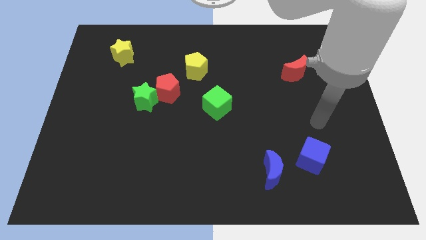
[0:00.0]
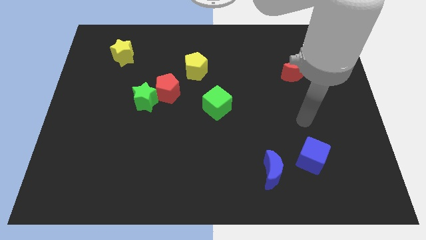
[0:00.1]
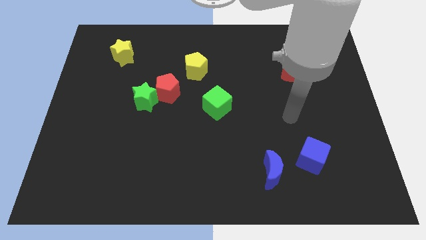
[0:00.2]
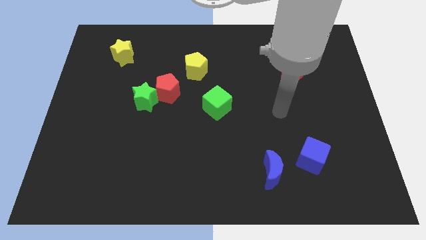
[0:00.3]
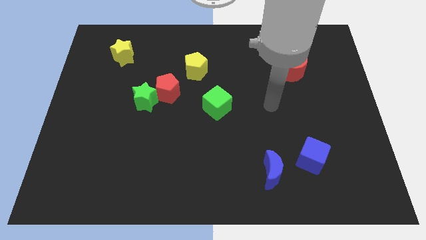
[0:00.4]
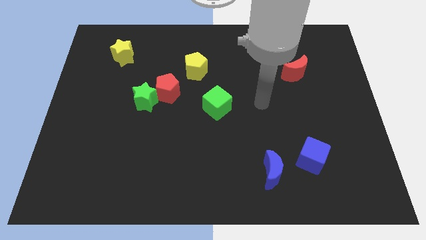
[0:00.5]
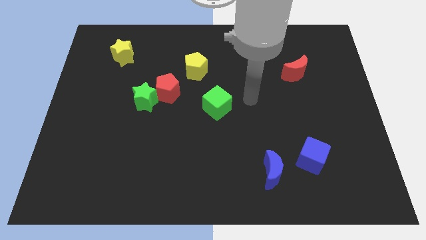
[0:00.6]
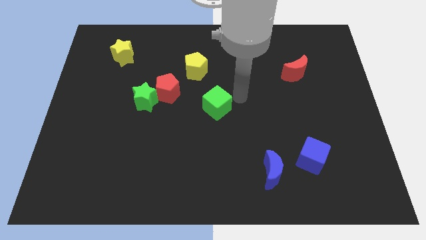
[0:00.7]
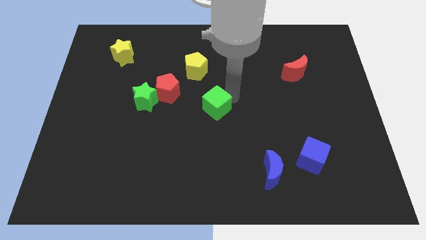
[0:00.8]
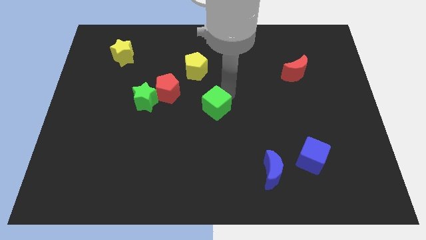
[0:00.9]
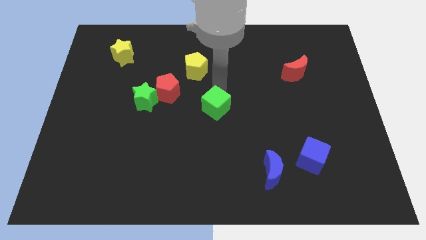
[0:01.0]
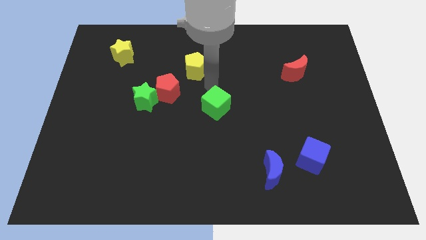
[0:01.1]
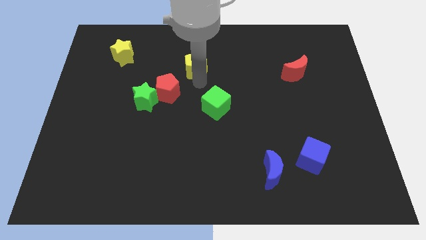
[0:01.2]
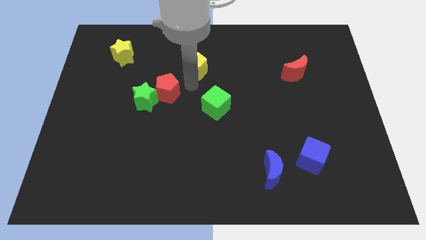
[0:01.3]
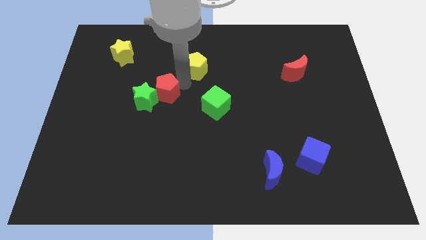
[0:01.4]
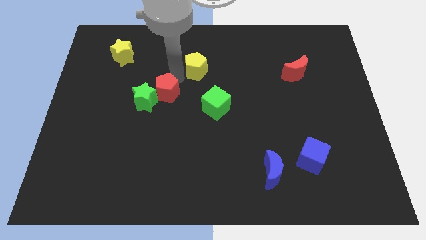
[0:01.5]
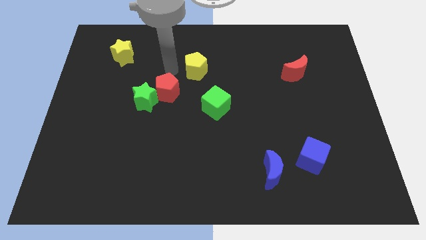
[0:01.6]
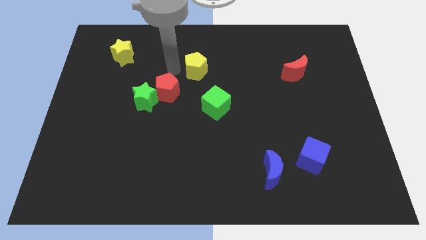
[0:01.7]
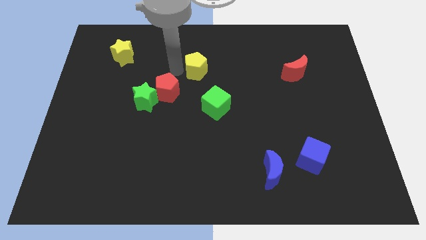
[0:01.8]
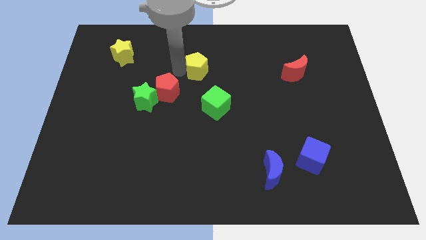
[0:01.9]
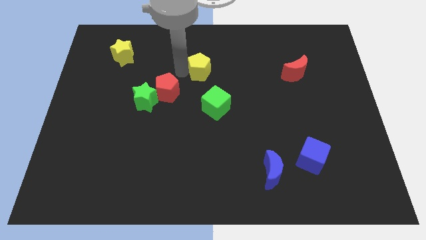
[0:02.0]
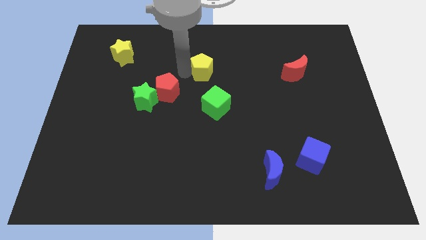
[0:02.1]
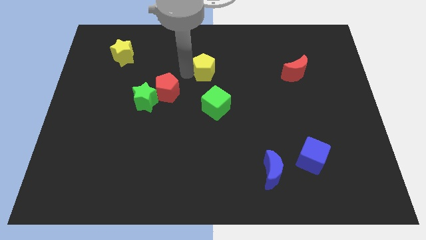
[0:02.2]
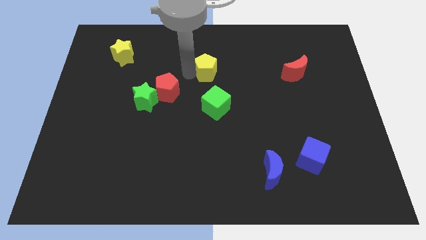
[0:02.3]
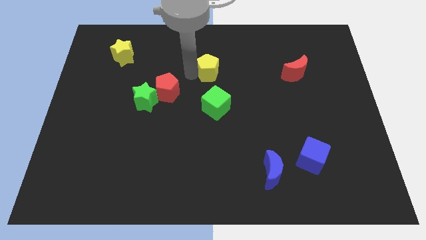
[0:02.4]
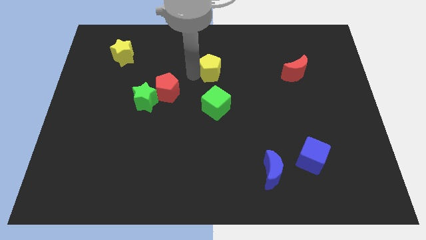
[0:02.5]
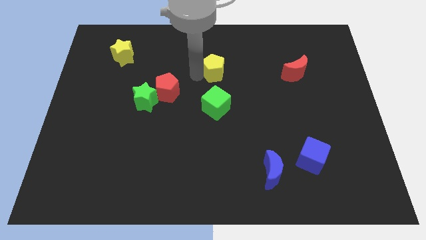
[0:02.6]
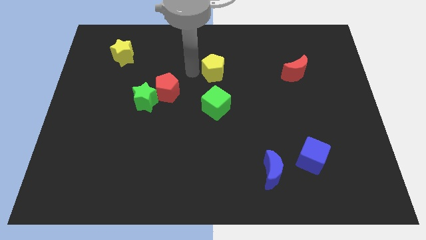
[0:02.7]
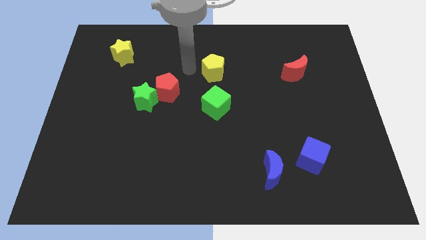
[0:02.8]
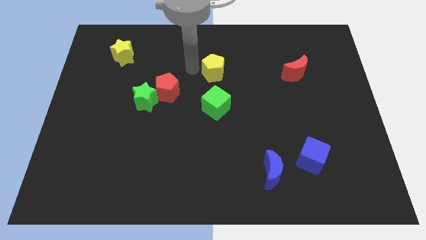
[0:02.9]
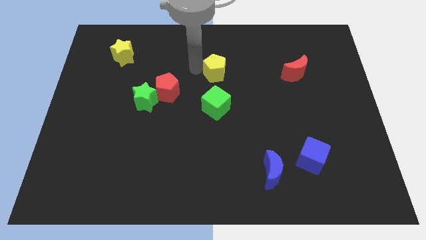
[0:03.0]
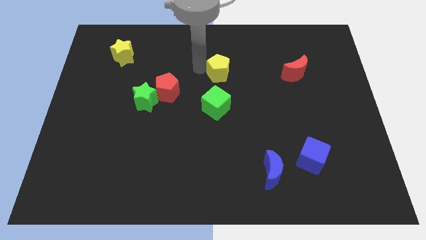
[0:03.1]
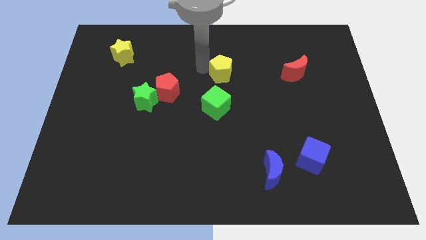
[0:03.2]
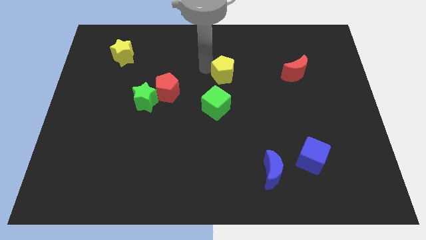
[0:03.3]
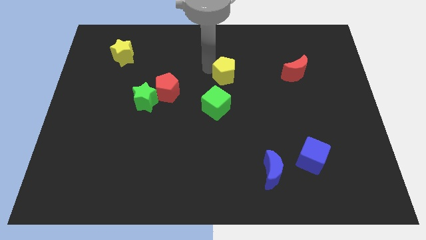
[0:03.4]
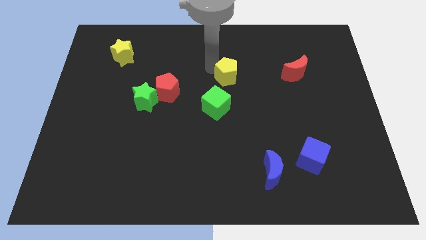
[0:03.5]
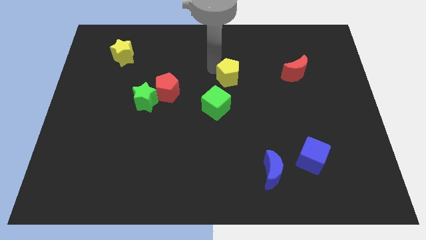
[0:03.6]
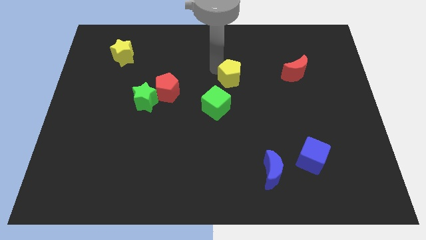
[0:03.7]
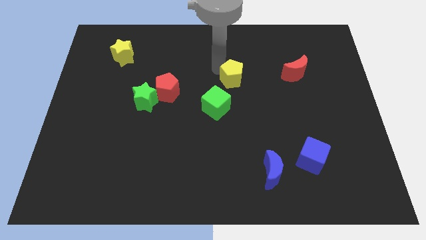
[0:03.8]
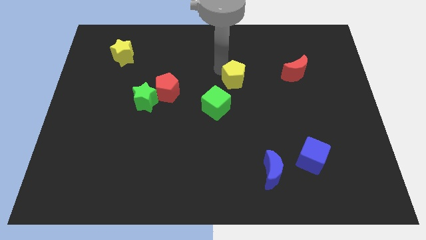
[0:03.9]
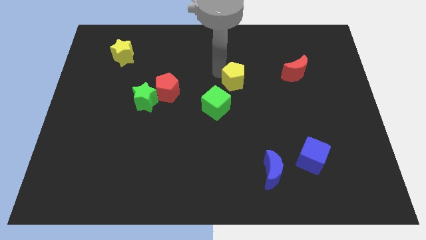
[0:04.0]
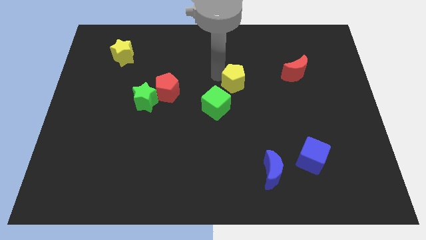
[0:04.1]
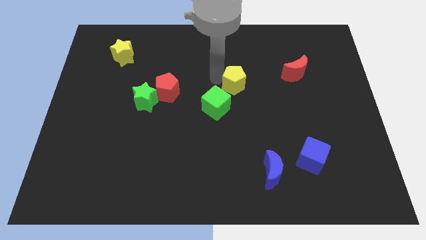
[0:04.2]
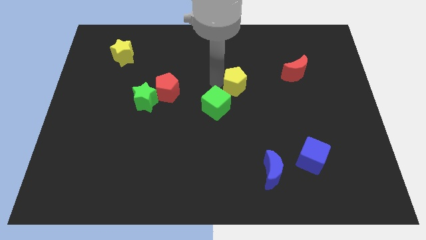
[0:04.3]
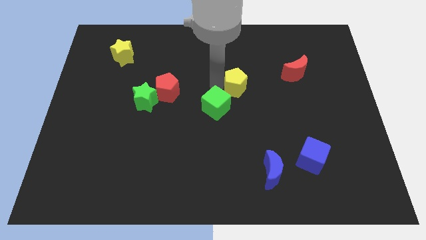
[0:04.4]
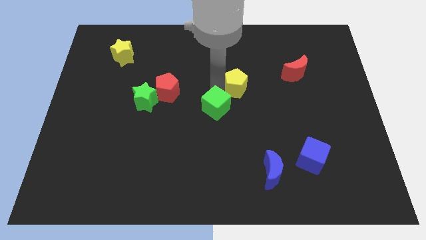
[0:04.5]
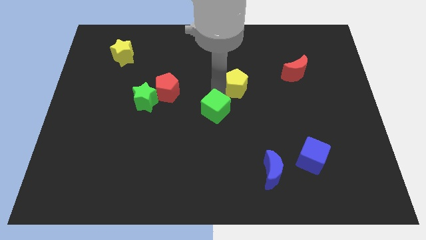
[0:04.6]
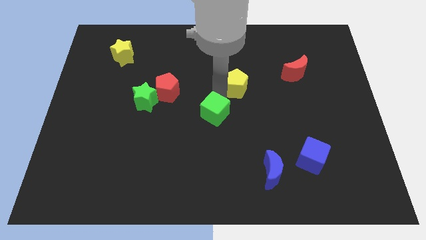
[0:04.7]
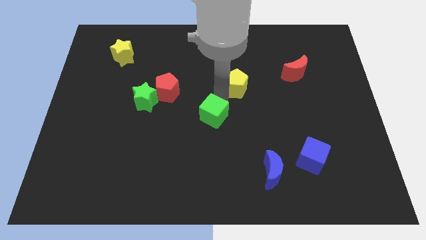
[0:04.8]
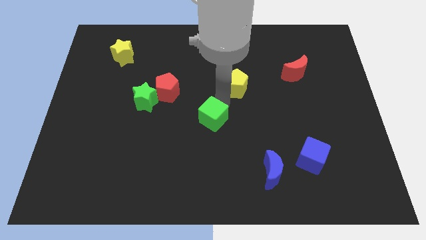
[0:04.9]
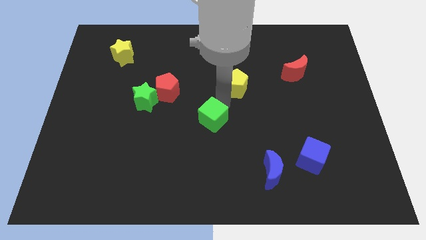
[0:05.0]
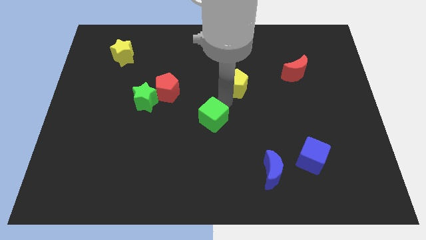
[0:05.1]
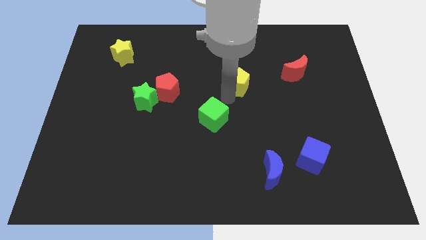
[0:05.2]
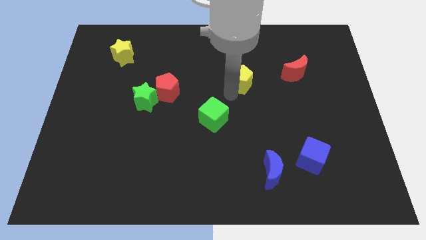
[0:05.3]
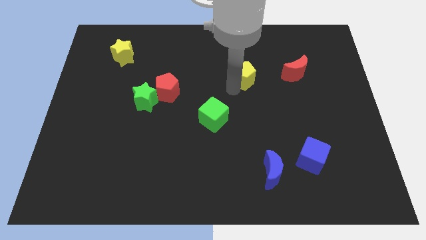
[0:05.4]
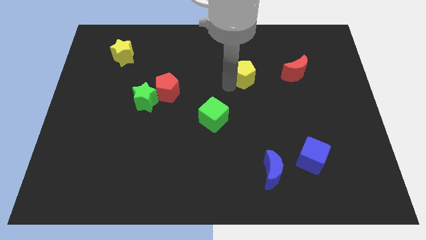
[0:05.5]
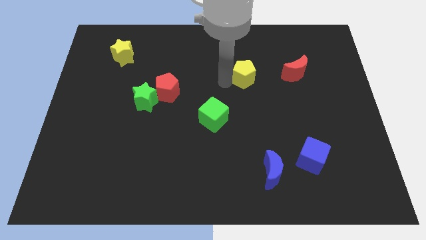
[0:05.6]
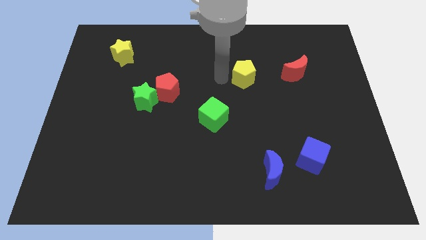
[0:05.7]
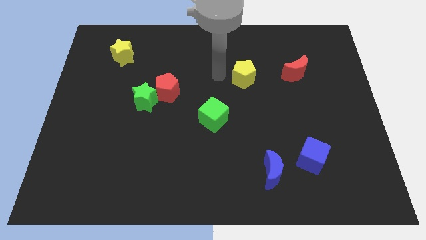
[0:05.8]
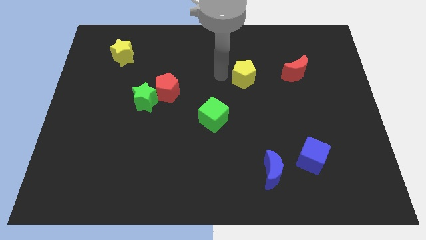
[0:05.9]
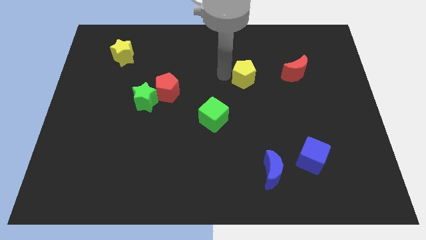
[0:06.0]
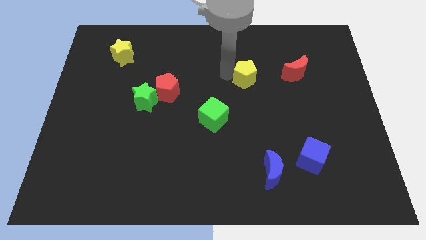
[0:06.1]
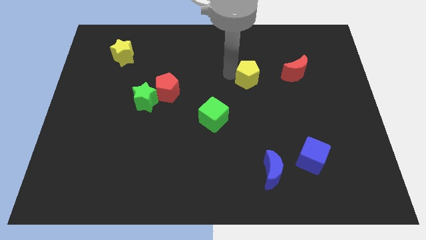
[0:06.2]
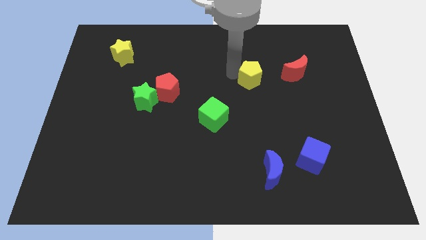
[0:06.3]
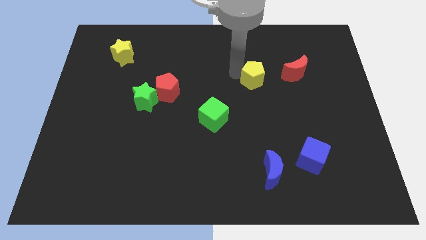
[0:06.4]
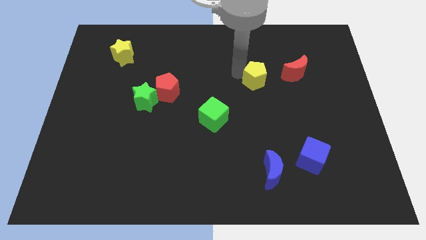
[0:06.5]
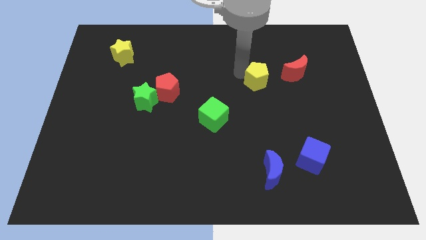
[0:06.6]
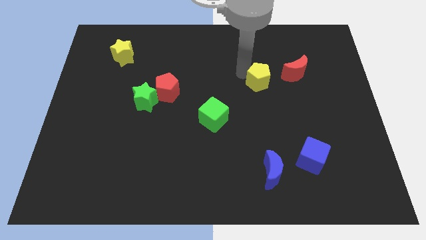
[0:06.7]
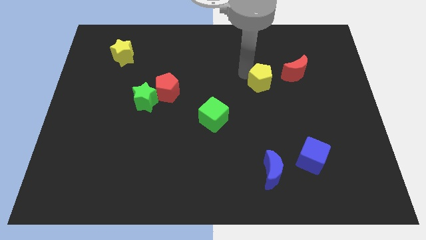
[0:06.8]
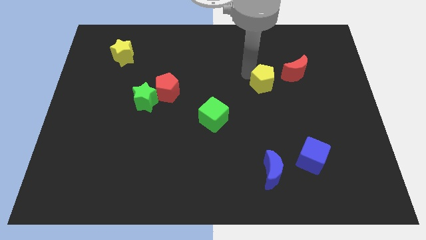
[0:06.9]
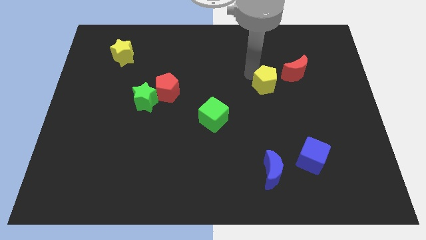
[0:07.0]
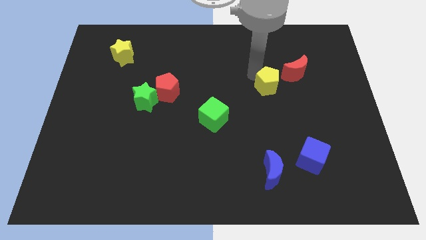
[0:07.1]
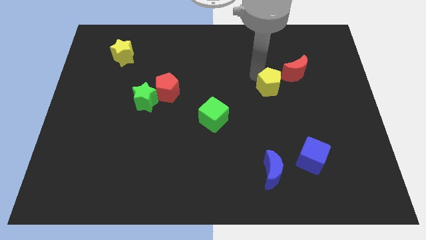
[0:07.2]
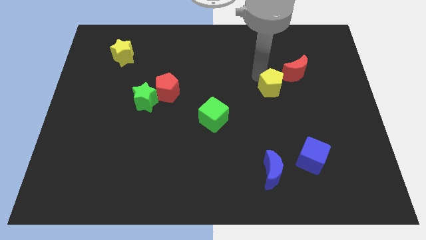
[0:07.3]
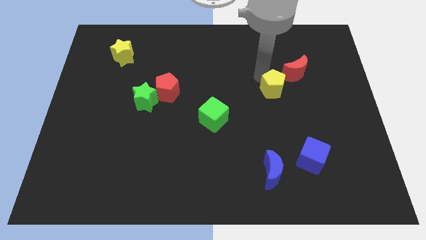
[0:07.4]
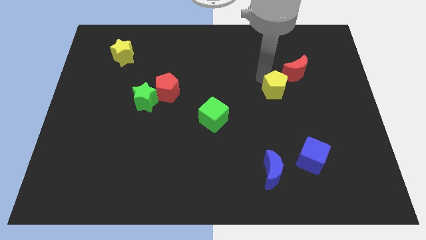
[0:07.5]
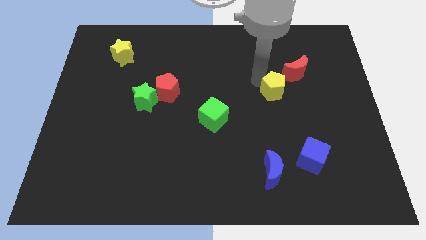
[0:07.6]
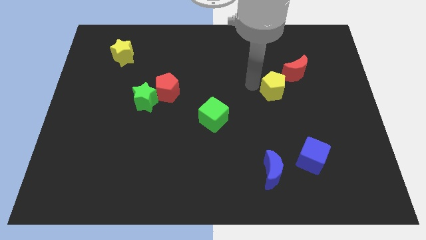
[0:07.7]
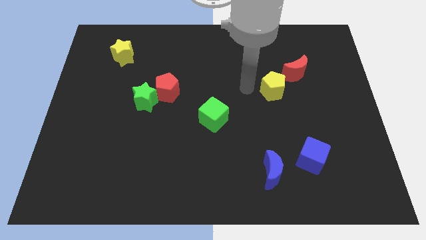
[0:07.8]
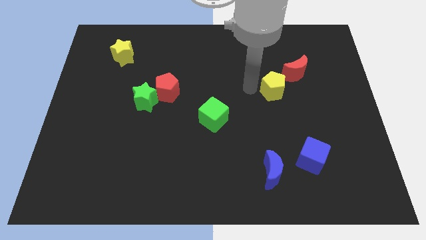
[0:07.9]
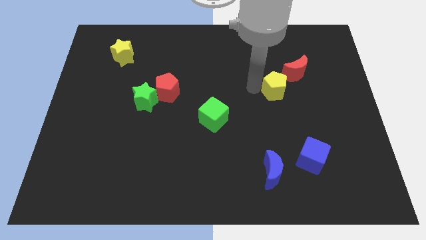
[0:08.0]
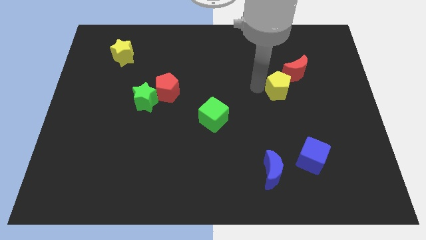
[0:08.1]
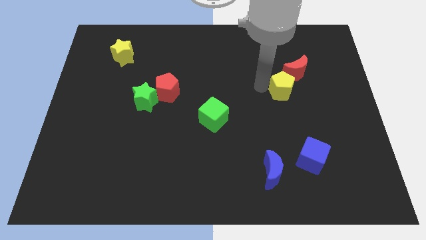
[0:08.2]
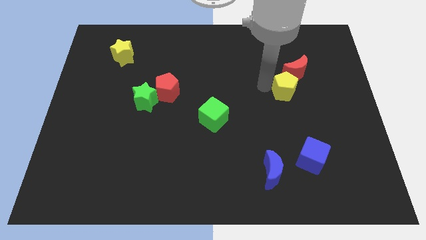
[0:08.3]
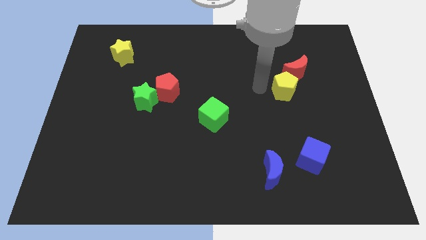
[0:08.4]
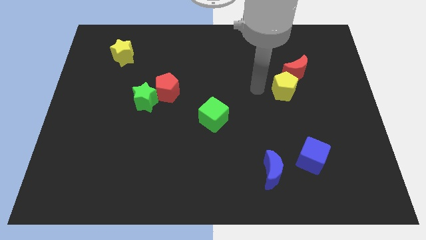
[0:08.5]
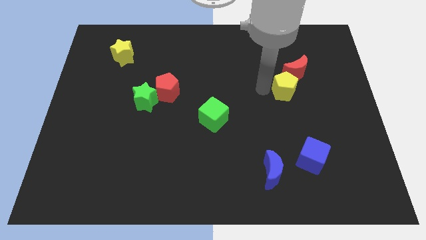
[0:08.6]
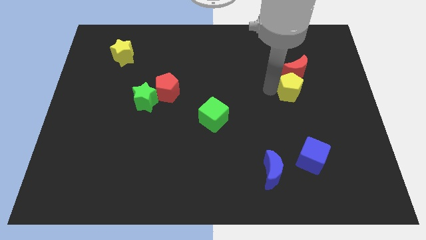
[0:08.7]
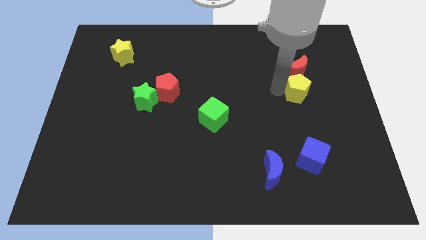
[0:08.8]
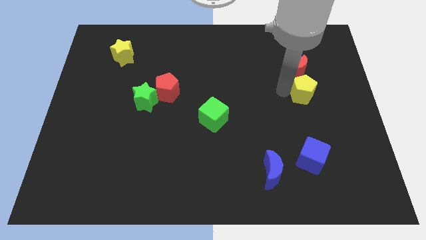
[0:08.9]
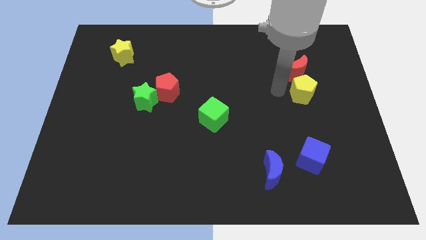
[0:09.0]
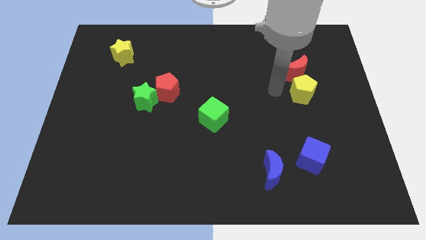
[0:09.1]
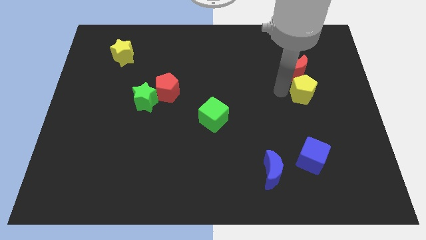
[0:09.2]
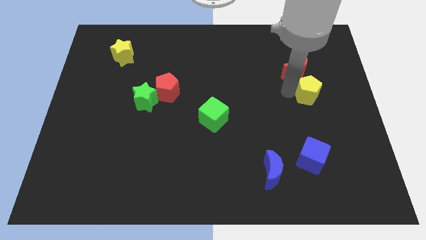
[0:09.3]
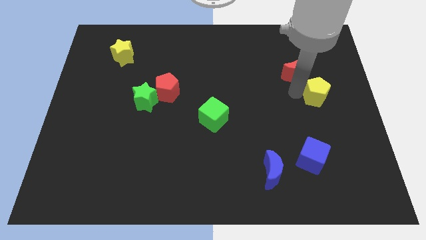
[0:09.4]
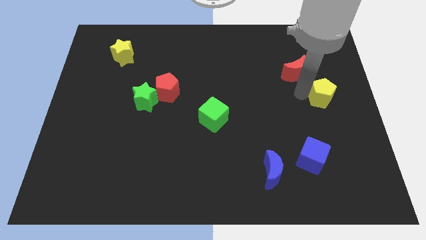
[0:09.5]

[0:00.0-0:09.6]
move the yellow pentagon to the center right
